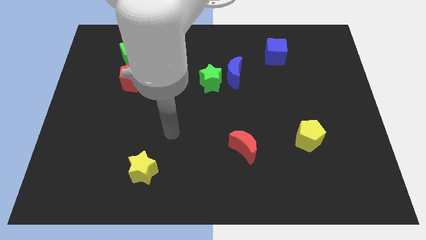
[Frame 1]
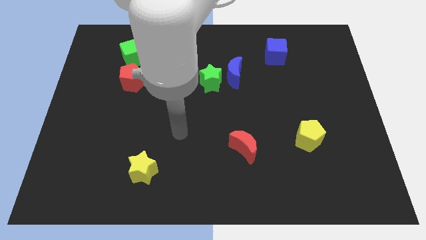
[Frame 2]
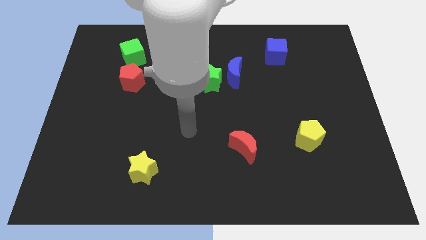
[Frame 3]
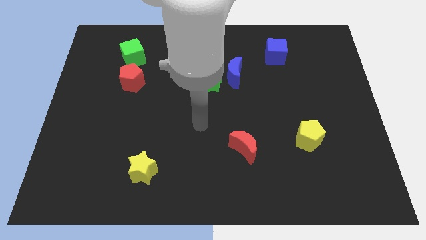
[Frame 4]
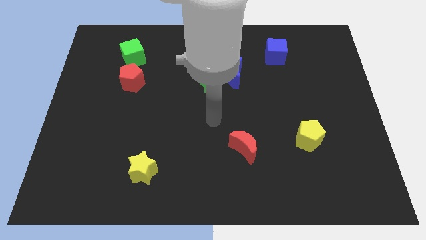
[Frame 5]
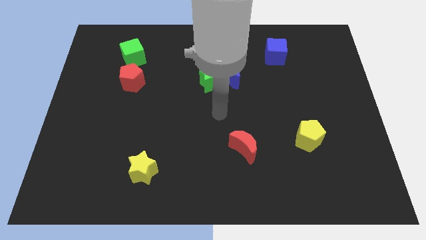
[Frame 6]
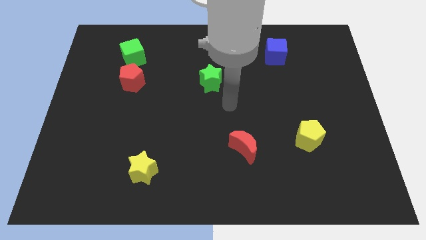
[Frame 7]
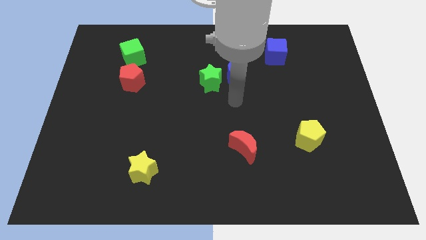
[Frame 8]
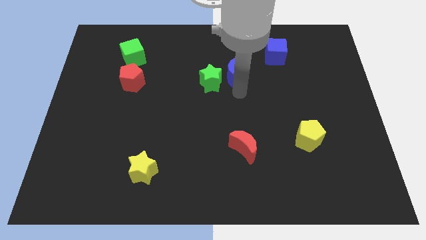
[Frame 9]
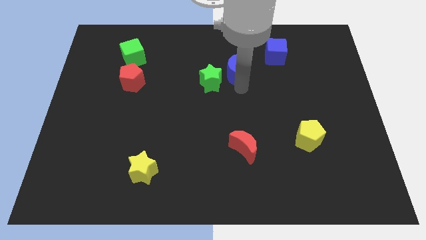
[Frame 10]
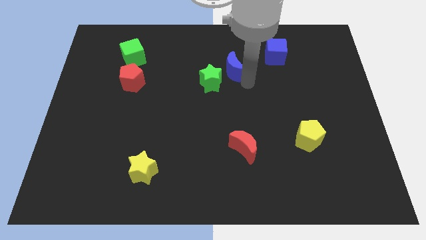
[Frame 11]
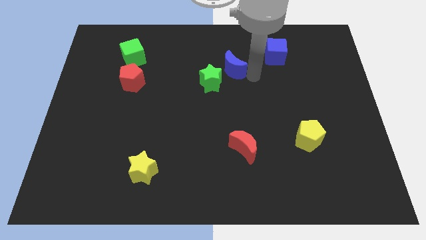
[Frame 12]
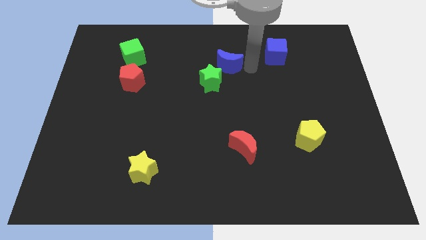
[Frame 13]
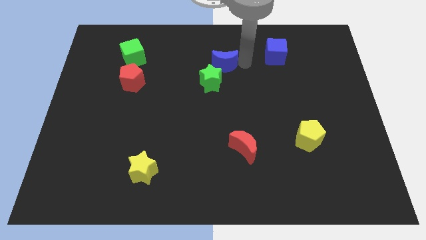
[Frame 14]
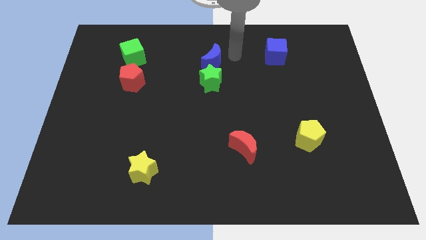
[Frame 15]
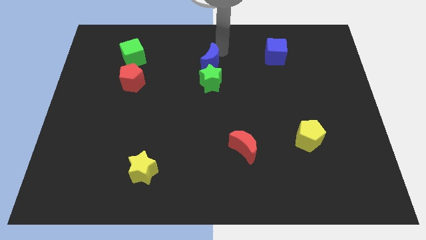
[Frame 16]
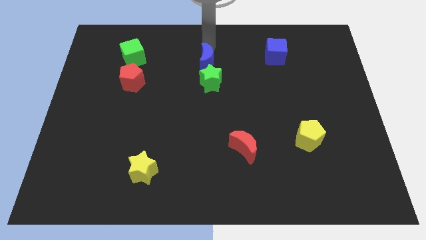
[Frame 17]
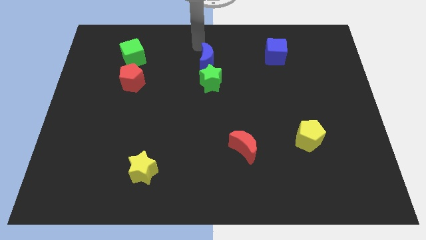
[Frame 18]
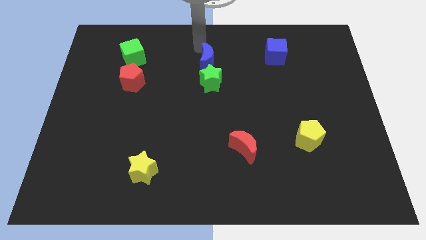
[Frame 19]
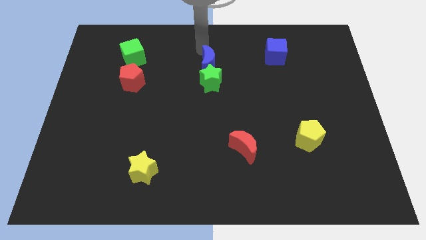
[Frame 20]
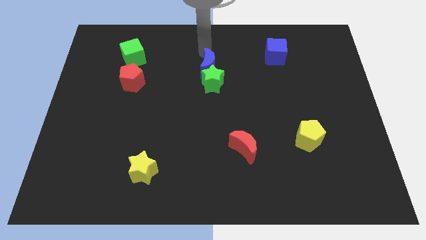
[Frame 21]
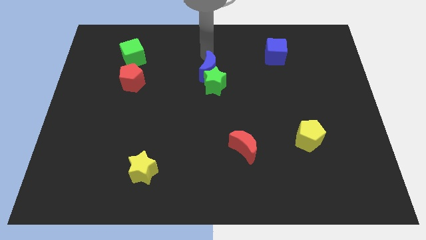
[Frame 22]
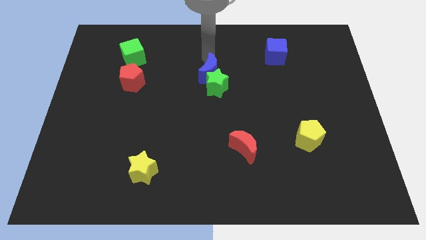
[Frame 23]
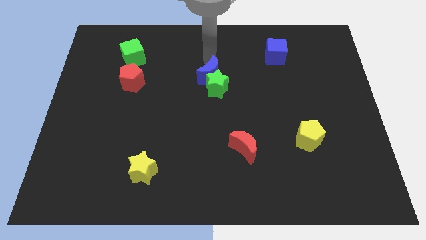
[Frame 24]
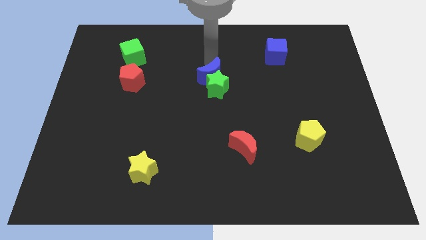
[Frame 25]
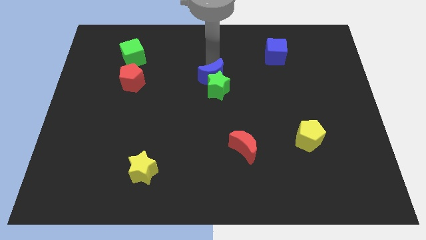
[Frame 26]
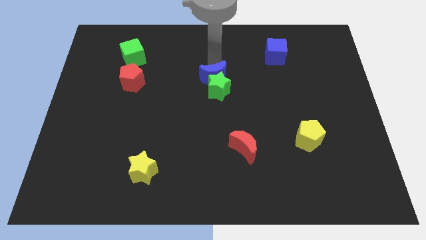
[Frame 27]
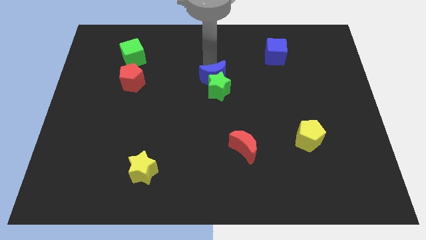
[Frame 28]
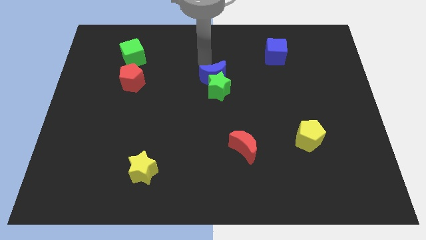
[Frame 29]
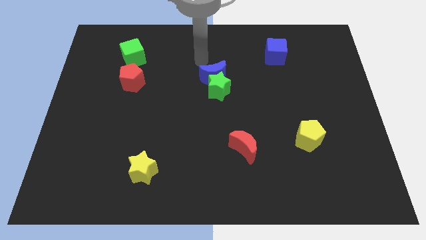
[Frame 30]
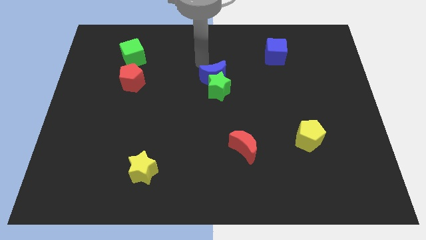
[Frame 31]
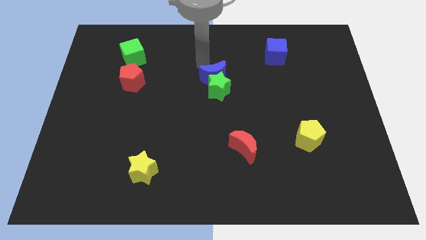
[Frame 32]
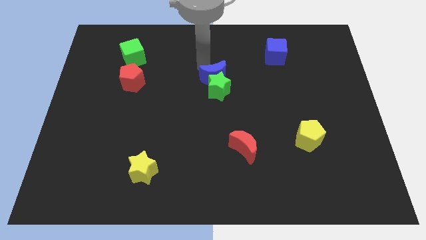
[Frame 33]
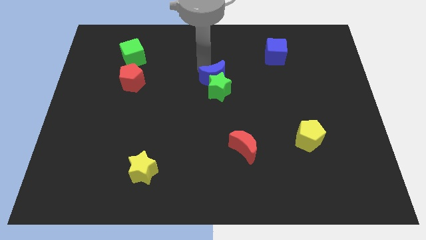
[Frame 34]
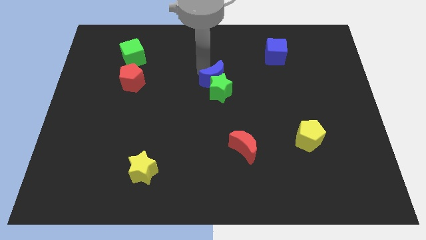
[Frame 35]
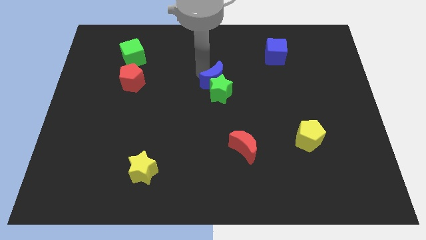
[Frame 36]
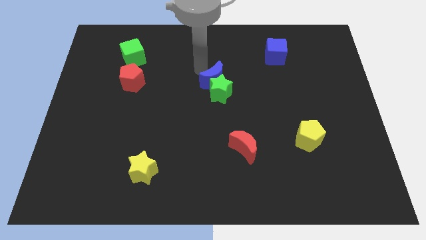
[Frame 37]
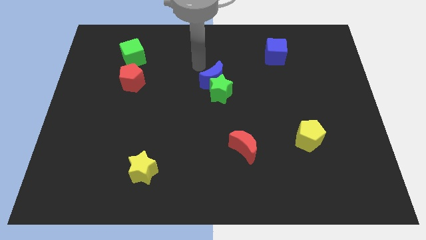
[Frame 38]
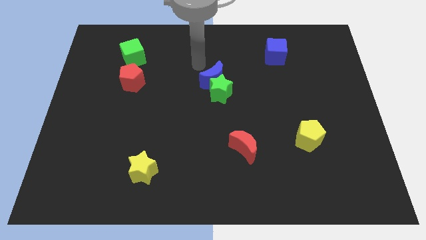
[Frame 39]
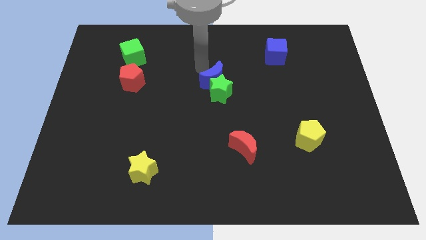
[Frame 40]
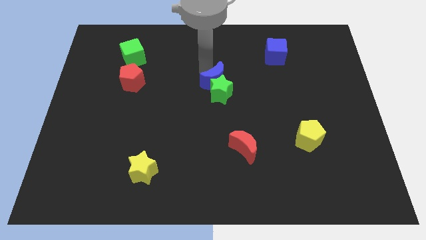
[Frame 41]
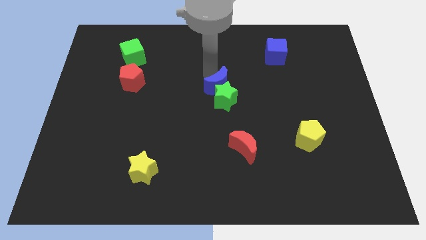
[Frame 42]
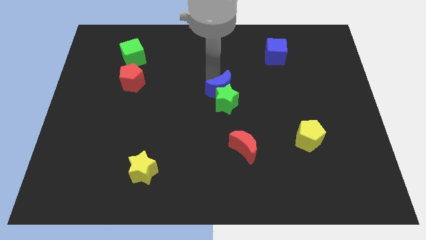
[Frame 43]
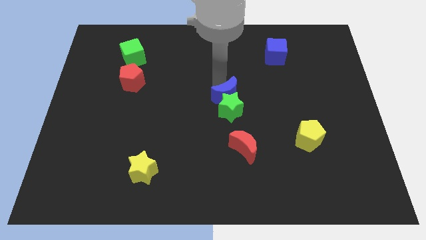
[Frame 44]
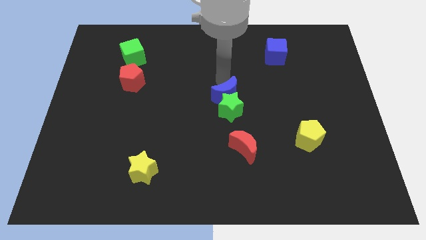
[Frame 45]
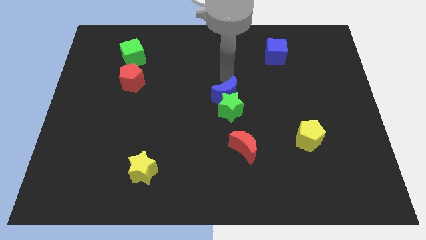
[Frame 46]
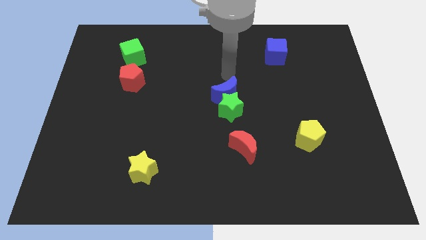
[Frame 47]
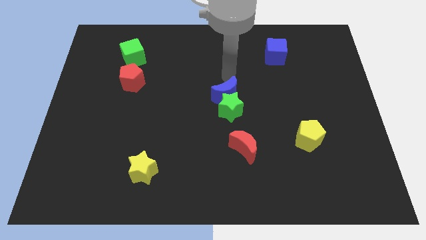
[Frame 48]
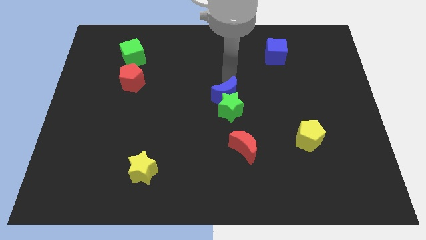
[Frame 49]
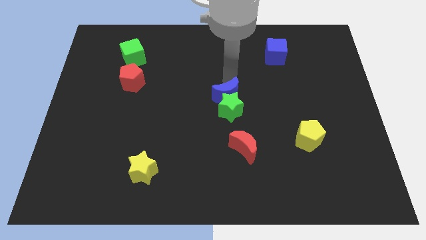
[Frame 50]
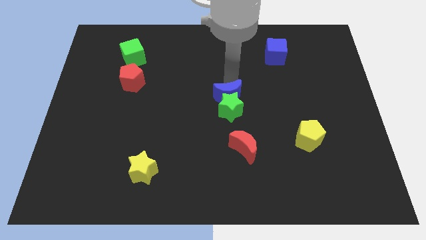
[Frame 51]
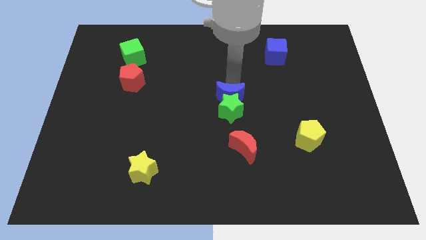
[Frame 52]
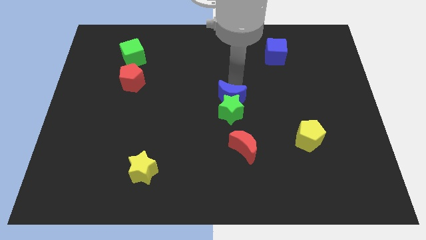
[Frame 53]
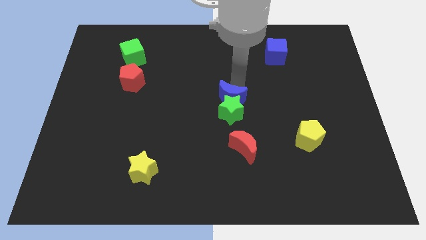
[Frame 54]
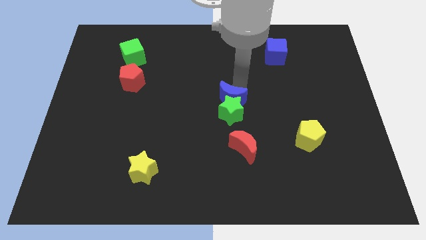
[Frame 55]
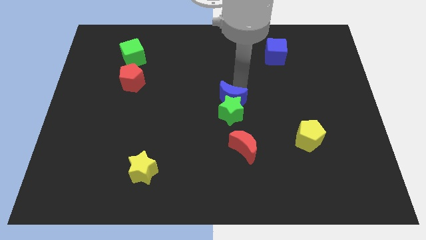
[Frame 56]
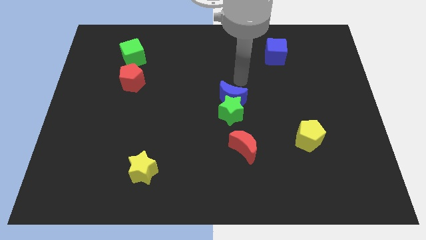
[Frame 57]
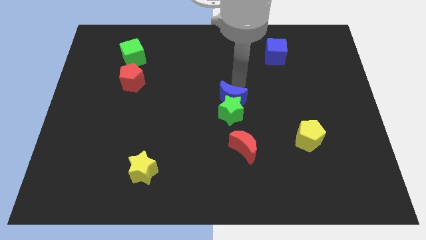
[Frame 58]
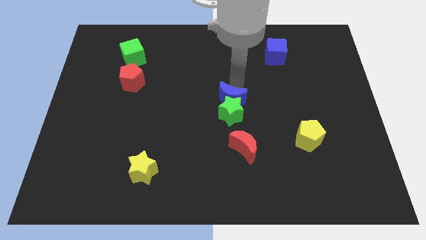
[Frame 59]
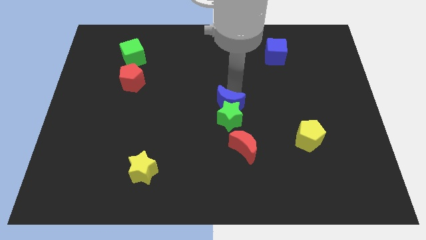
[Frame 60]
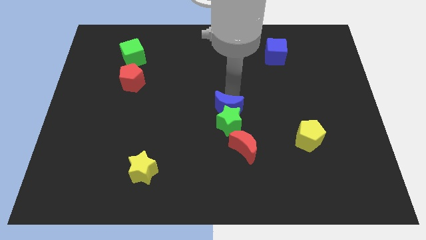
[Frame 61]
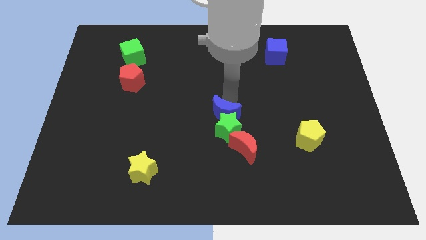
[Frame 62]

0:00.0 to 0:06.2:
move the blue moon diagonally up and to the left of the red moon
